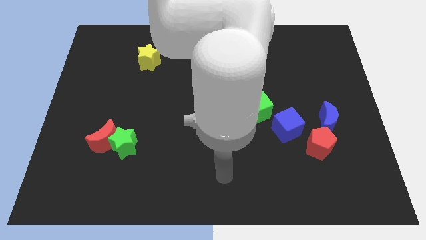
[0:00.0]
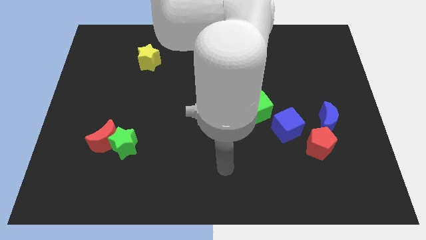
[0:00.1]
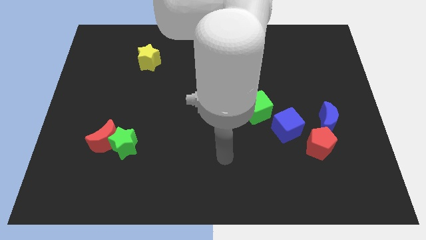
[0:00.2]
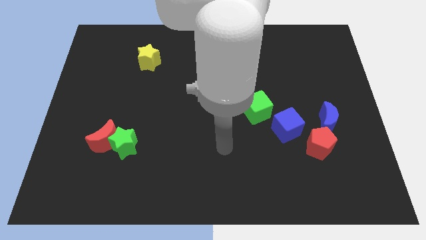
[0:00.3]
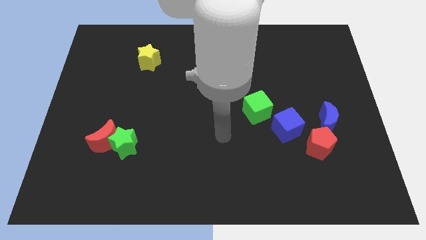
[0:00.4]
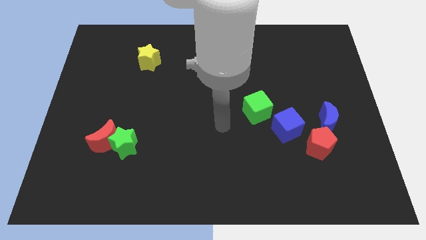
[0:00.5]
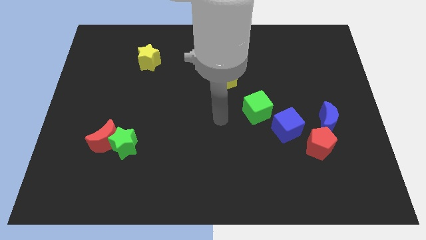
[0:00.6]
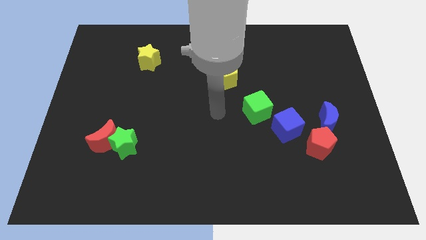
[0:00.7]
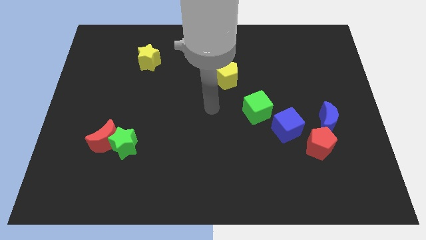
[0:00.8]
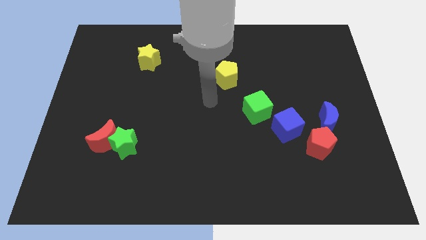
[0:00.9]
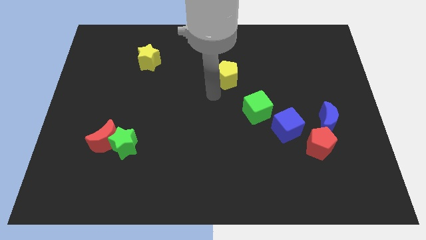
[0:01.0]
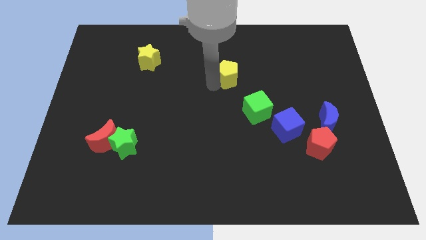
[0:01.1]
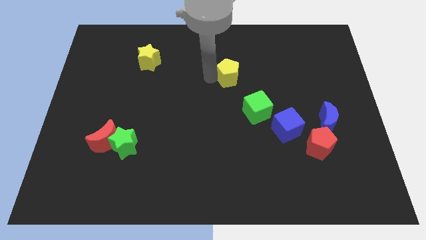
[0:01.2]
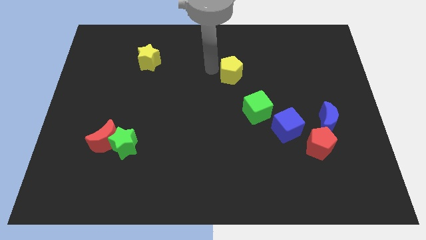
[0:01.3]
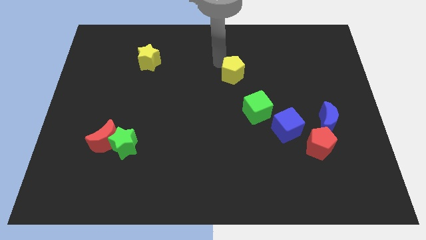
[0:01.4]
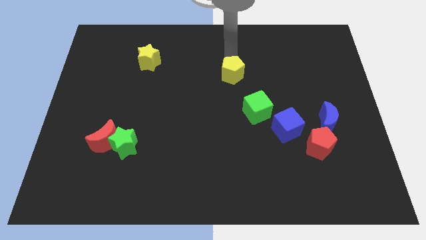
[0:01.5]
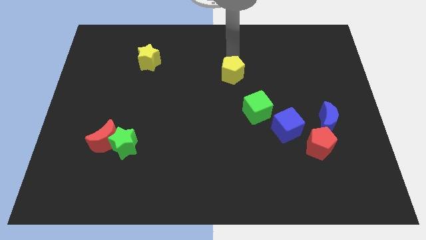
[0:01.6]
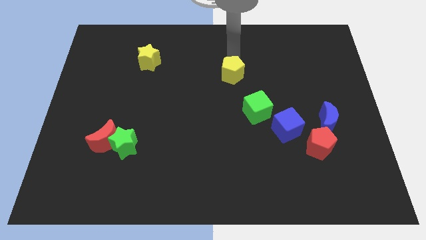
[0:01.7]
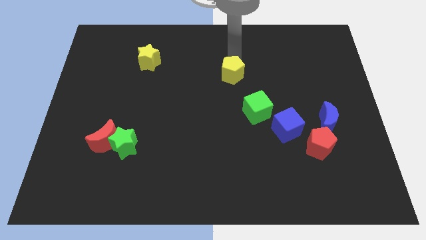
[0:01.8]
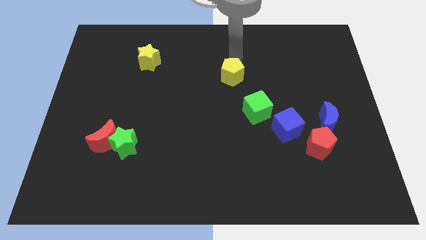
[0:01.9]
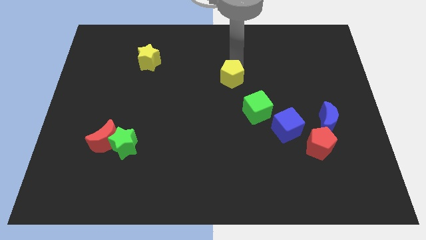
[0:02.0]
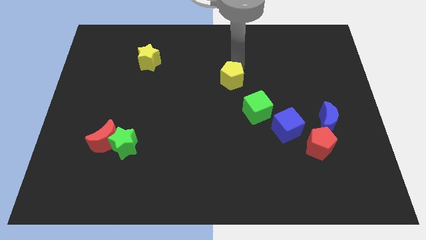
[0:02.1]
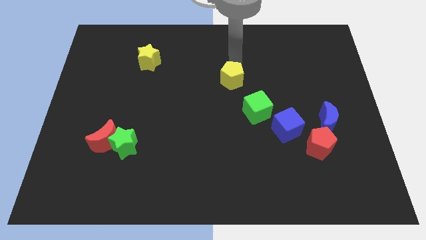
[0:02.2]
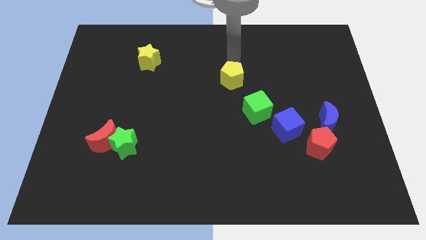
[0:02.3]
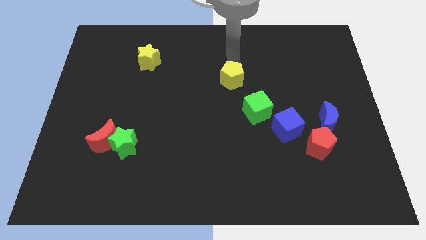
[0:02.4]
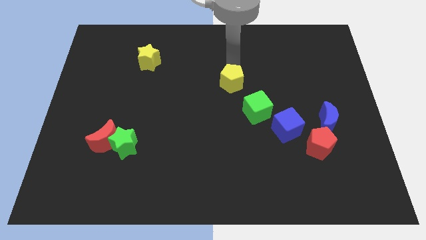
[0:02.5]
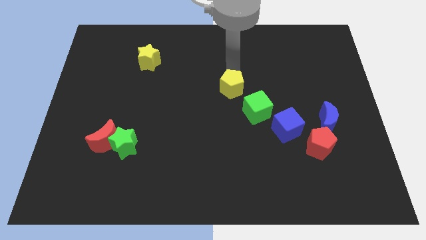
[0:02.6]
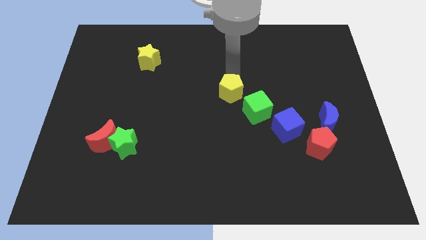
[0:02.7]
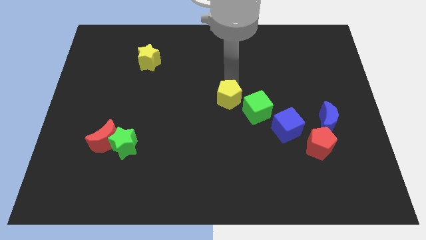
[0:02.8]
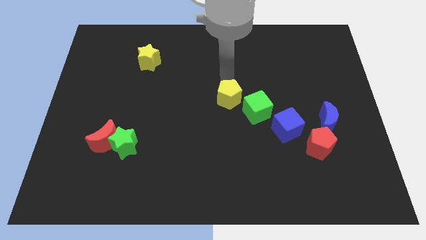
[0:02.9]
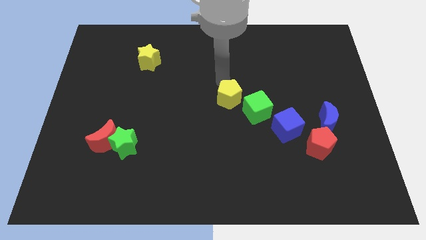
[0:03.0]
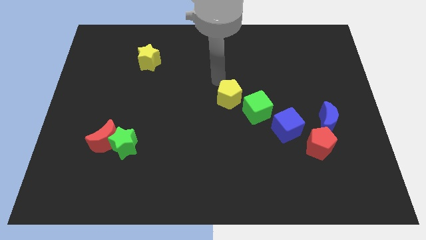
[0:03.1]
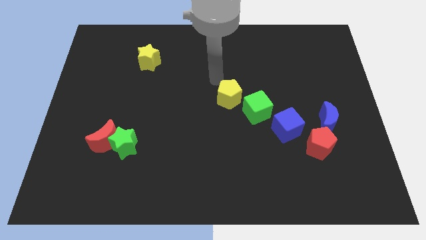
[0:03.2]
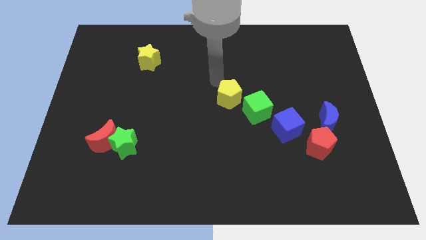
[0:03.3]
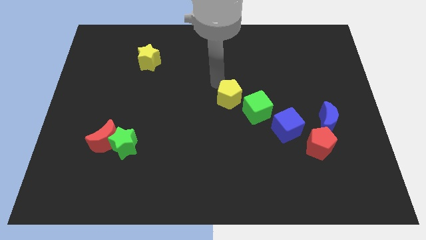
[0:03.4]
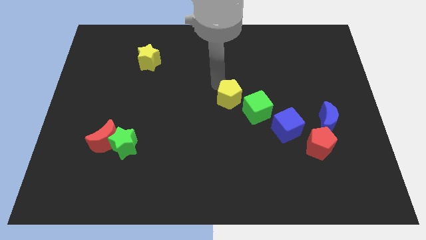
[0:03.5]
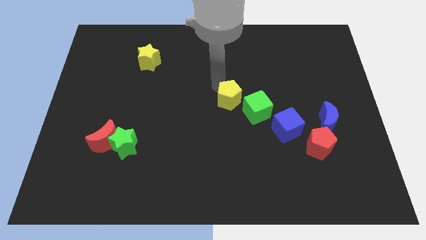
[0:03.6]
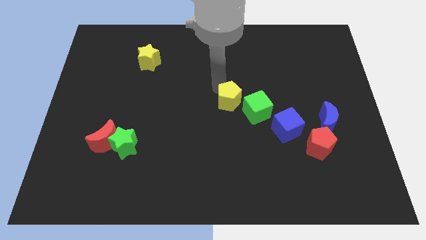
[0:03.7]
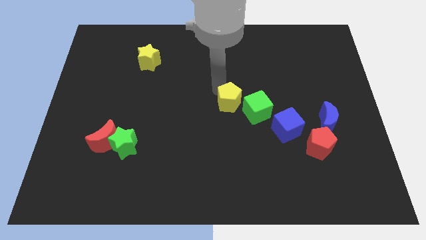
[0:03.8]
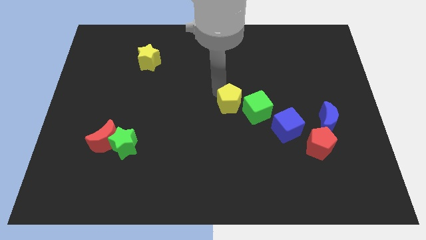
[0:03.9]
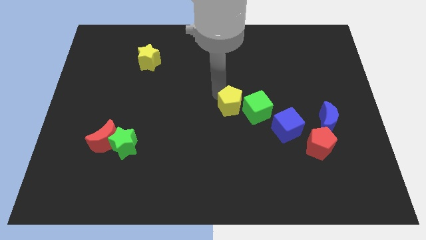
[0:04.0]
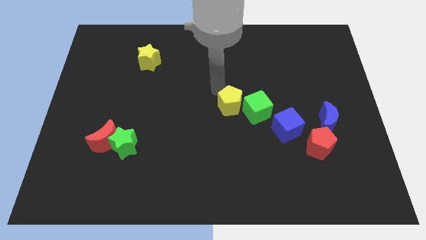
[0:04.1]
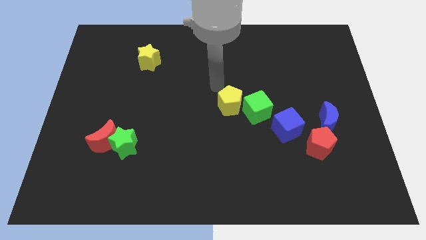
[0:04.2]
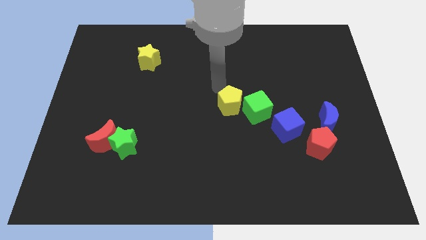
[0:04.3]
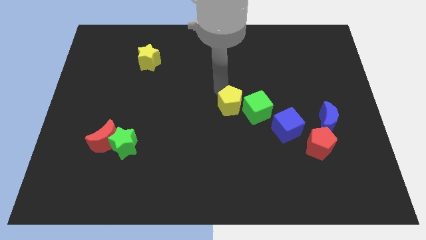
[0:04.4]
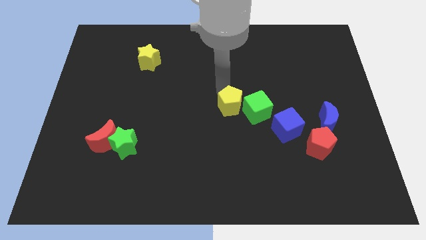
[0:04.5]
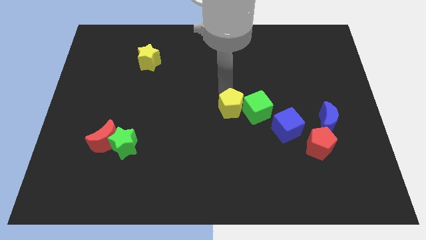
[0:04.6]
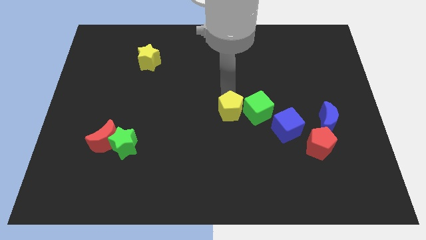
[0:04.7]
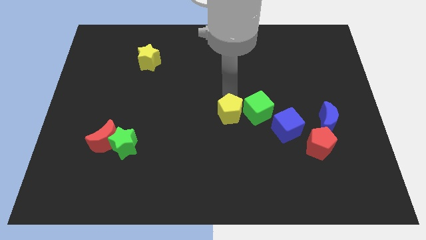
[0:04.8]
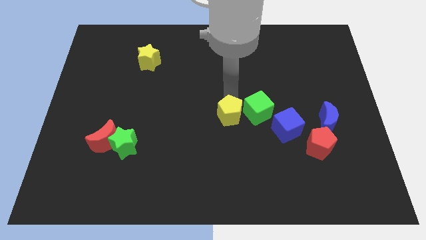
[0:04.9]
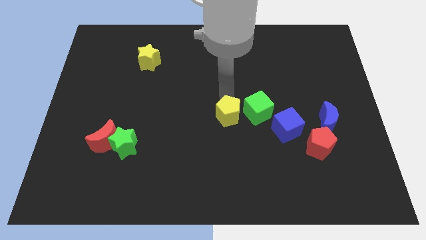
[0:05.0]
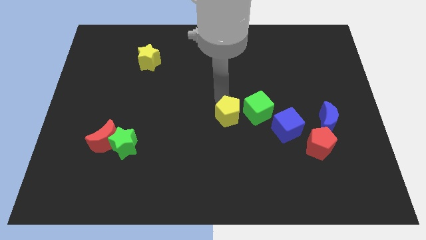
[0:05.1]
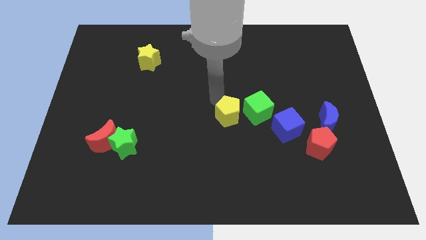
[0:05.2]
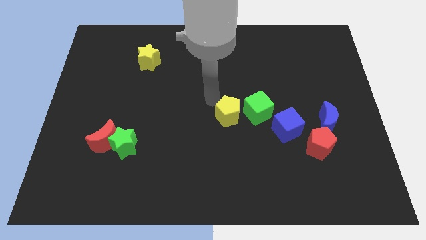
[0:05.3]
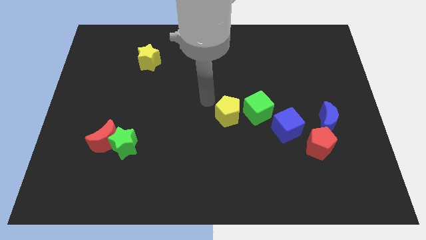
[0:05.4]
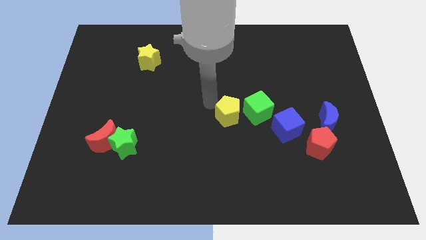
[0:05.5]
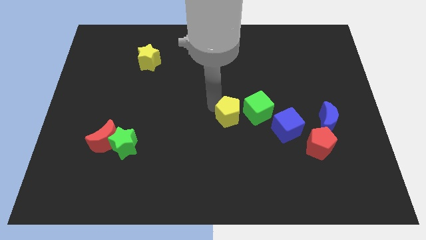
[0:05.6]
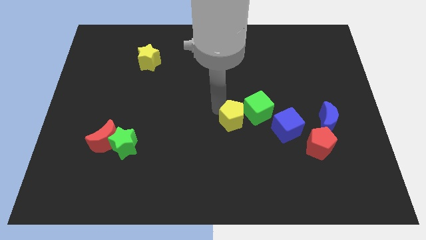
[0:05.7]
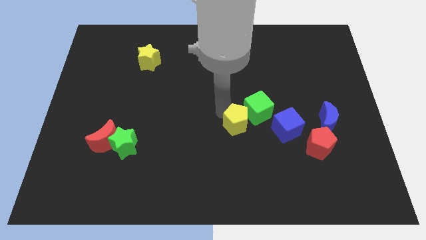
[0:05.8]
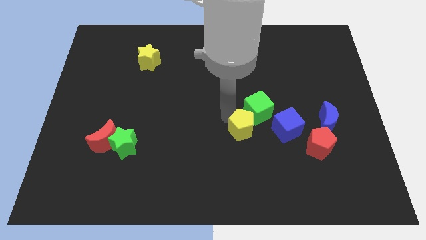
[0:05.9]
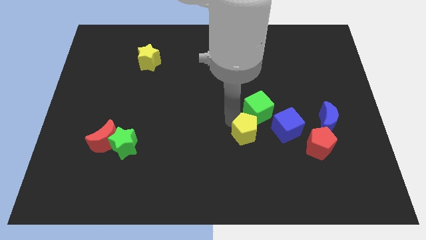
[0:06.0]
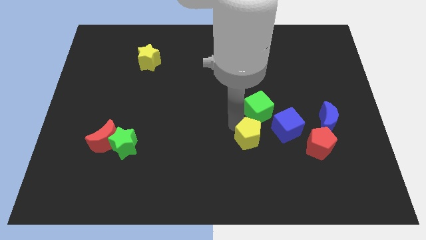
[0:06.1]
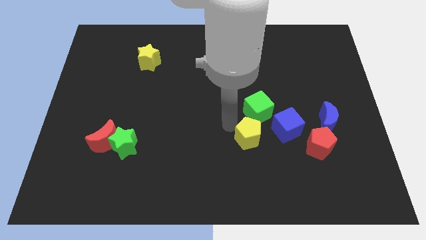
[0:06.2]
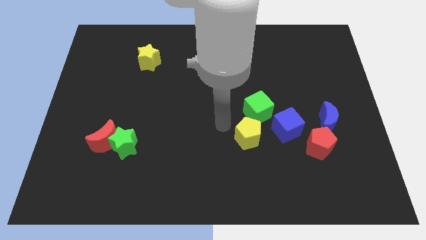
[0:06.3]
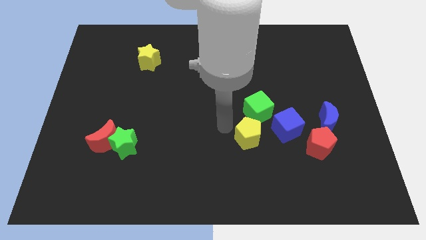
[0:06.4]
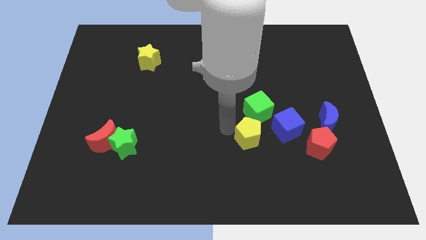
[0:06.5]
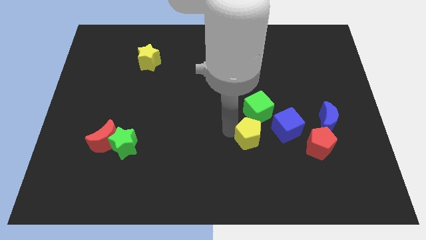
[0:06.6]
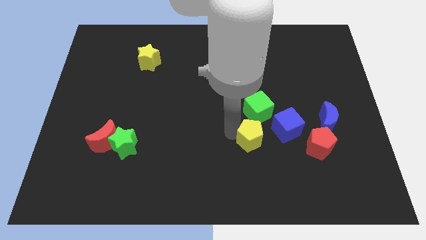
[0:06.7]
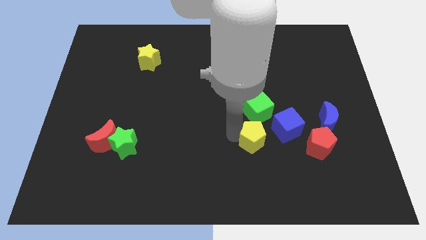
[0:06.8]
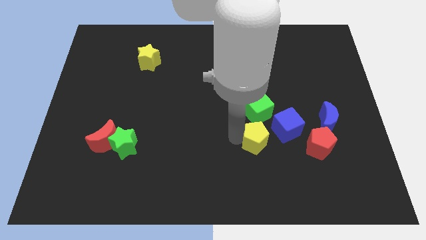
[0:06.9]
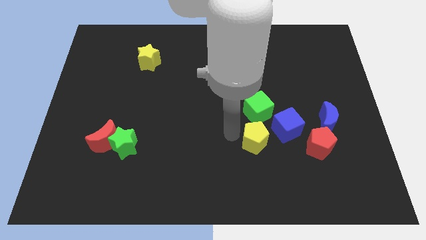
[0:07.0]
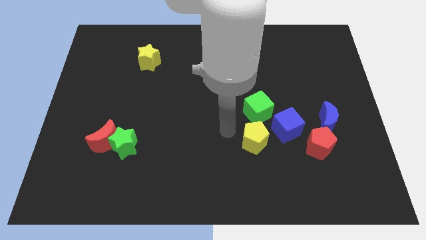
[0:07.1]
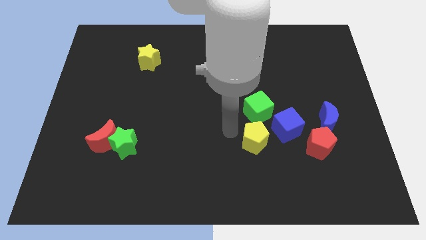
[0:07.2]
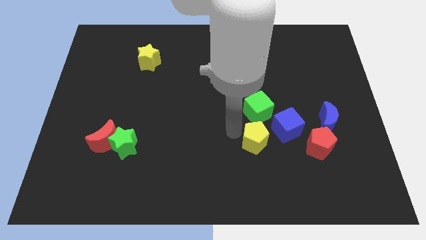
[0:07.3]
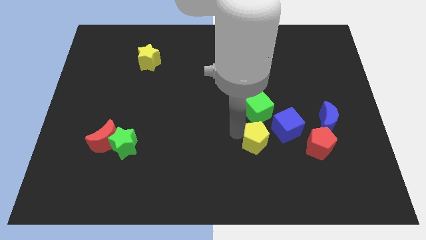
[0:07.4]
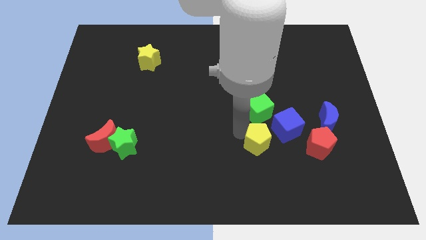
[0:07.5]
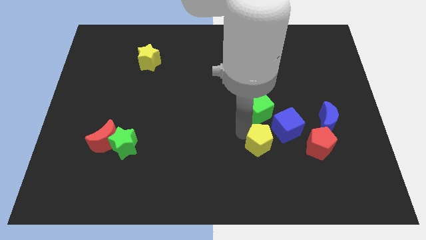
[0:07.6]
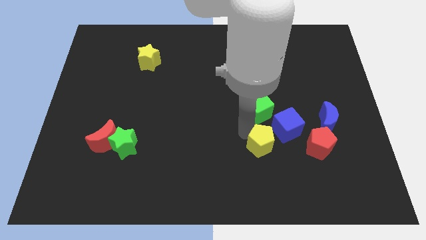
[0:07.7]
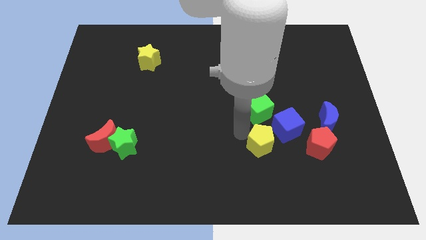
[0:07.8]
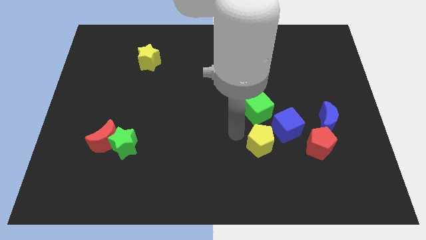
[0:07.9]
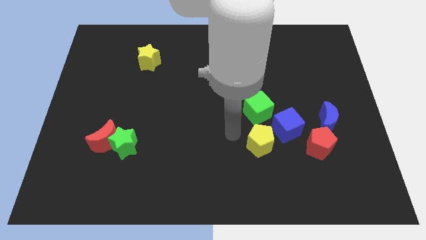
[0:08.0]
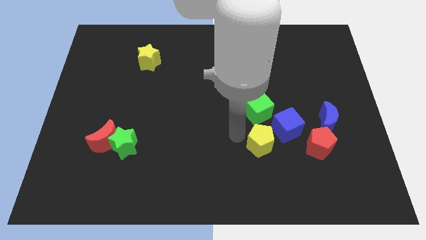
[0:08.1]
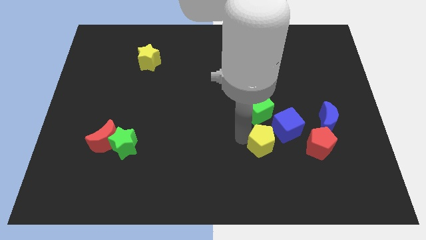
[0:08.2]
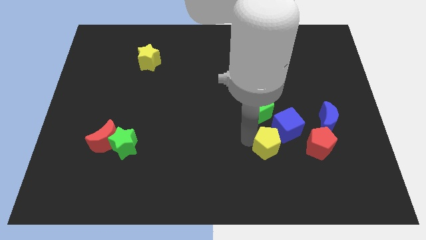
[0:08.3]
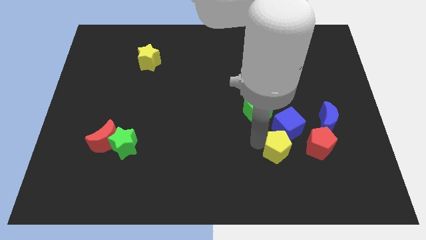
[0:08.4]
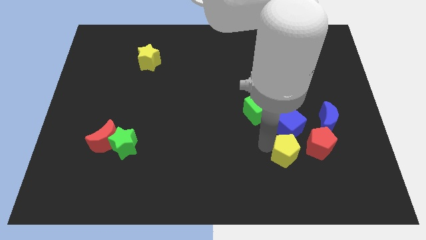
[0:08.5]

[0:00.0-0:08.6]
move the yellow pentagon down and to the right diagonally
